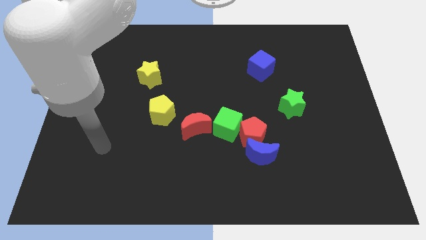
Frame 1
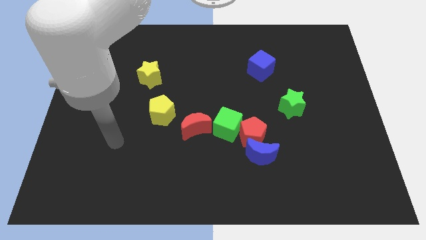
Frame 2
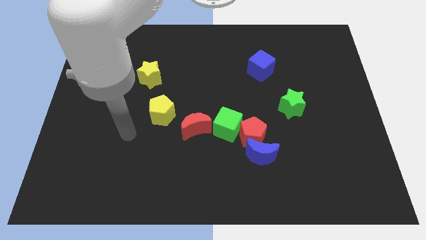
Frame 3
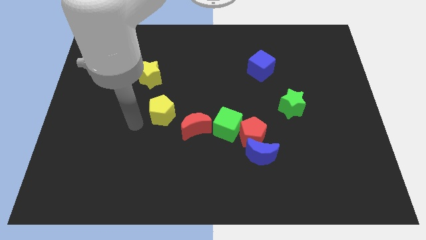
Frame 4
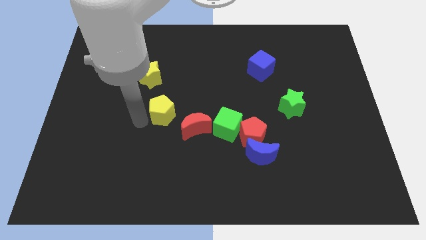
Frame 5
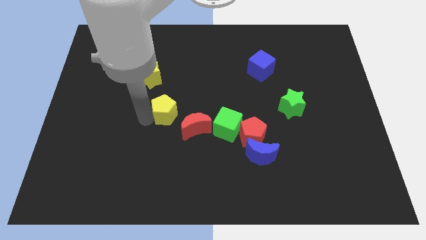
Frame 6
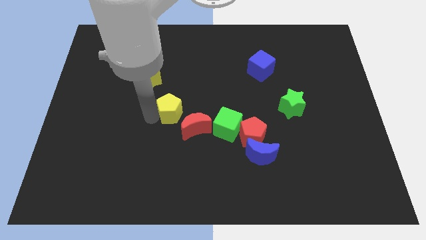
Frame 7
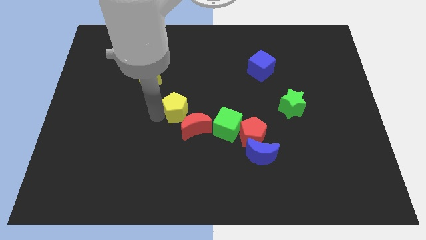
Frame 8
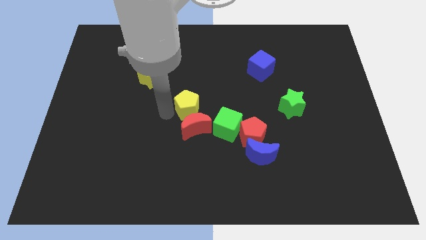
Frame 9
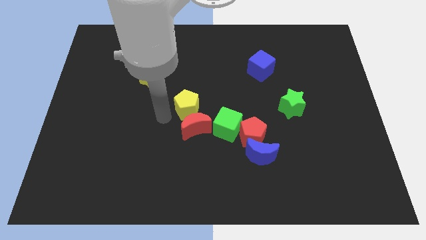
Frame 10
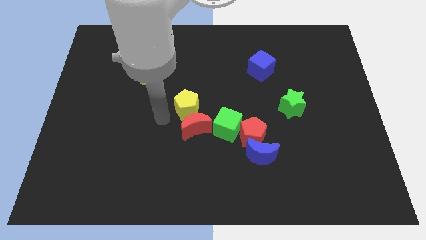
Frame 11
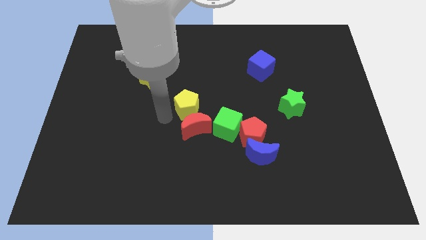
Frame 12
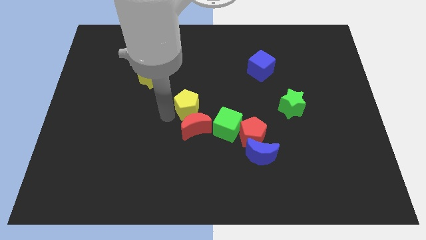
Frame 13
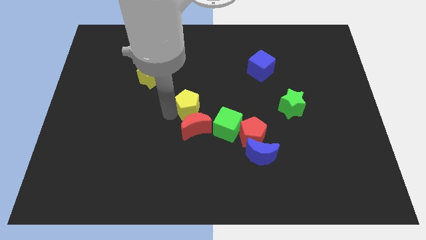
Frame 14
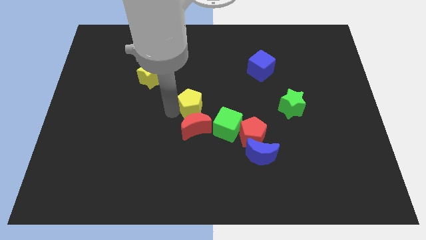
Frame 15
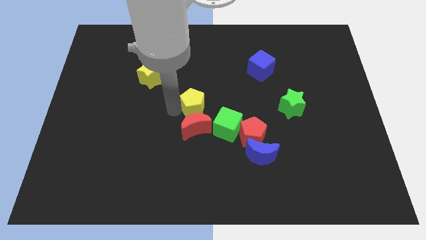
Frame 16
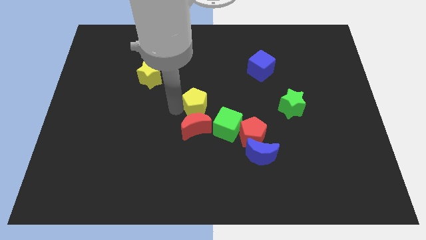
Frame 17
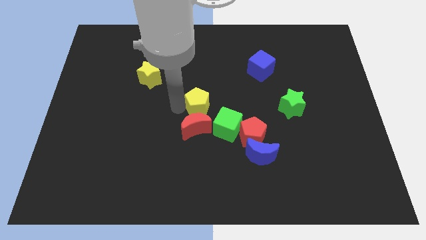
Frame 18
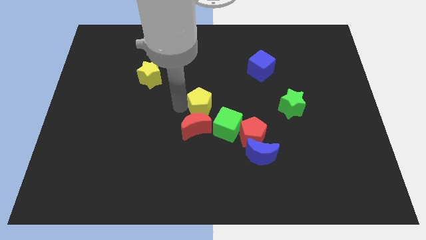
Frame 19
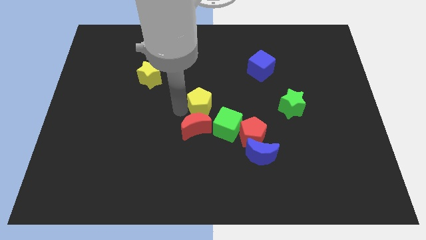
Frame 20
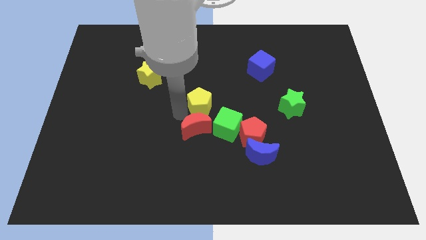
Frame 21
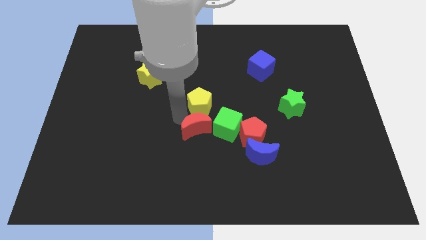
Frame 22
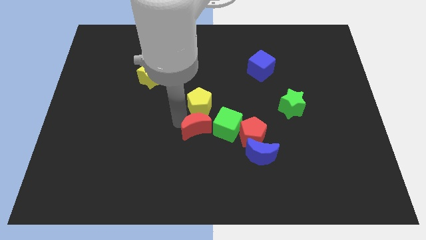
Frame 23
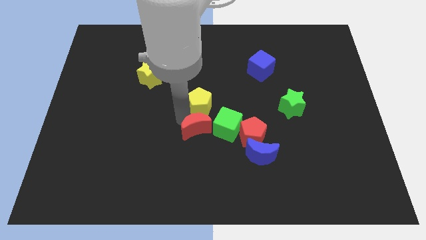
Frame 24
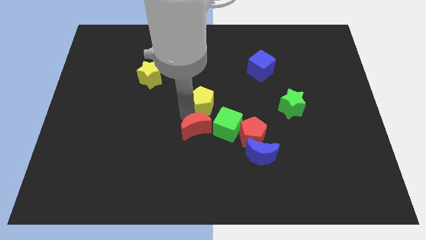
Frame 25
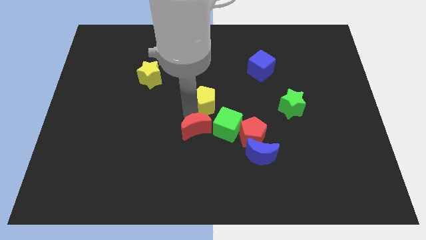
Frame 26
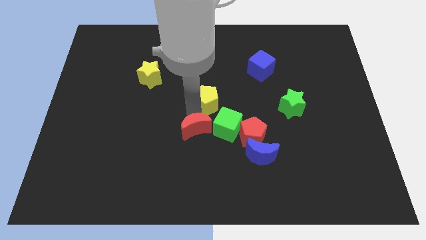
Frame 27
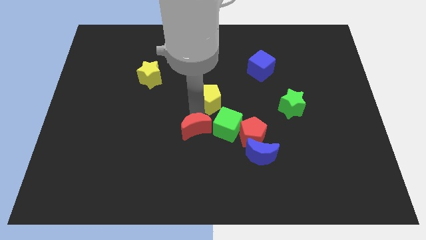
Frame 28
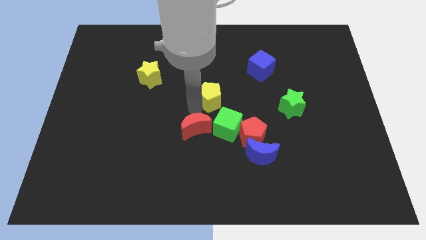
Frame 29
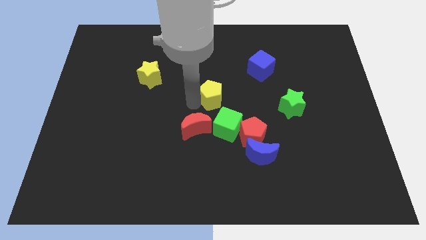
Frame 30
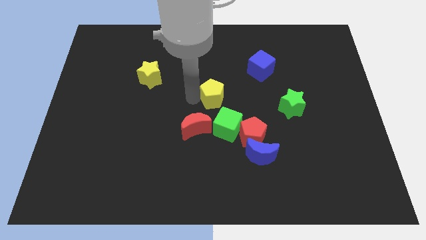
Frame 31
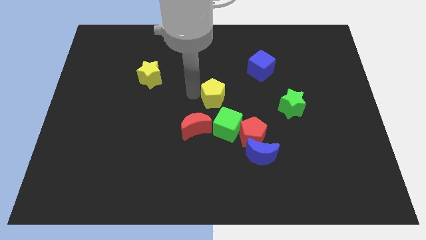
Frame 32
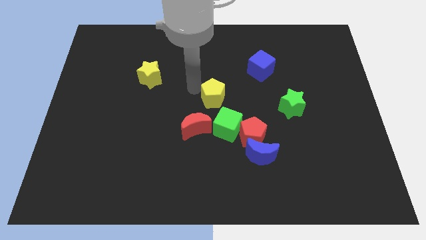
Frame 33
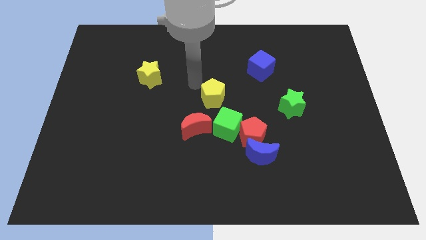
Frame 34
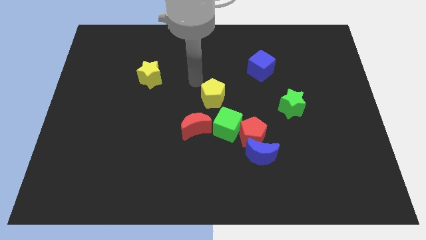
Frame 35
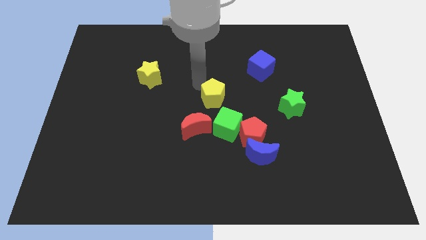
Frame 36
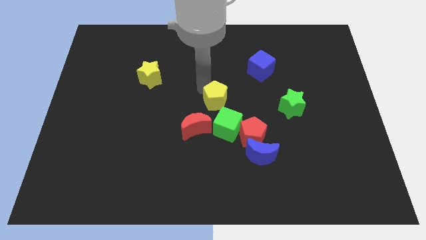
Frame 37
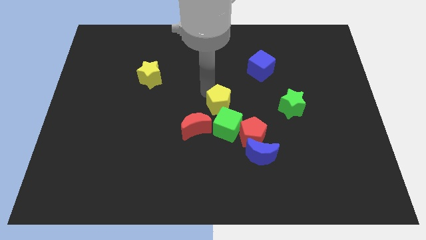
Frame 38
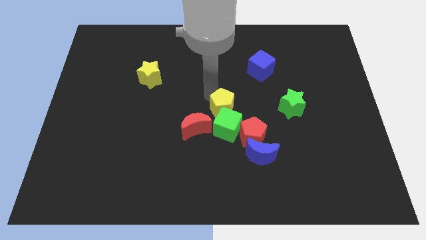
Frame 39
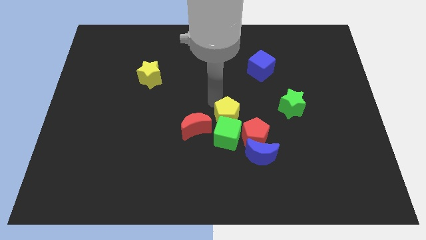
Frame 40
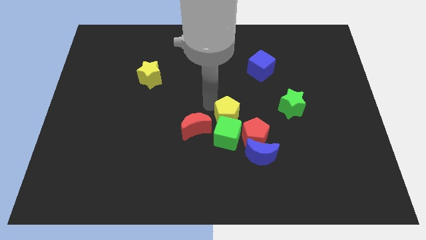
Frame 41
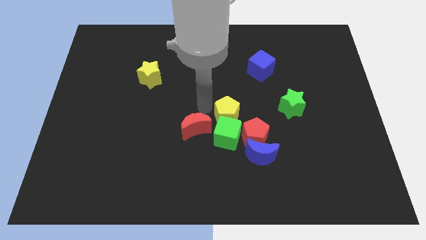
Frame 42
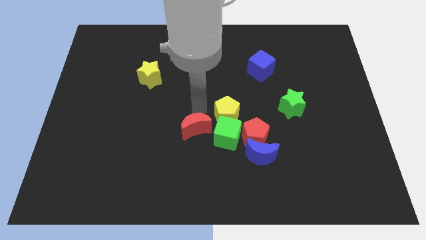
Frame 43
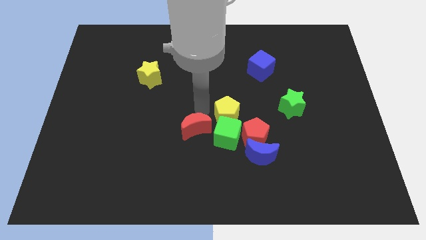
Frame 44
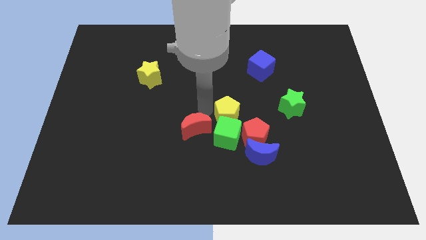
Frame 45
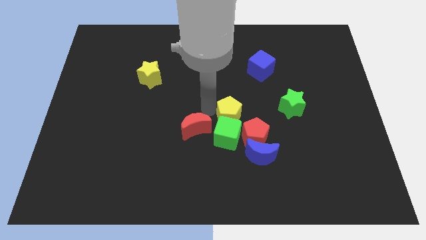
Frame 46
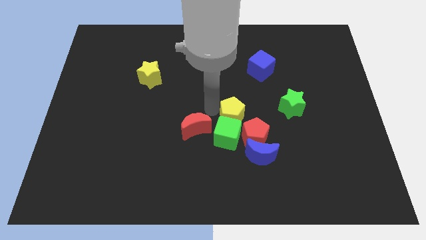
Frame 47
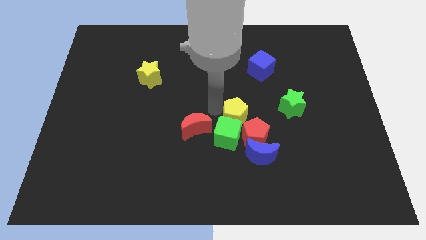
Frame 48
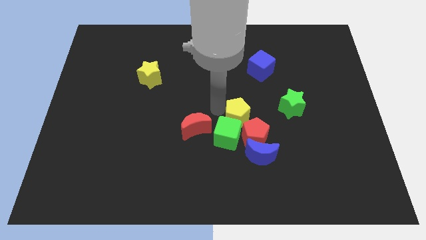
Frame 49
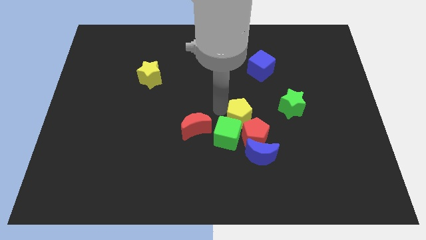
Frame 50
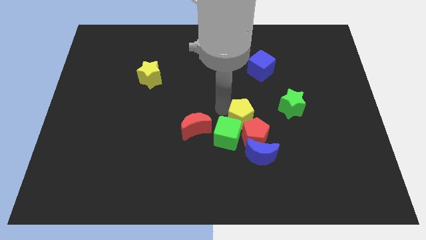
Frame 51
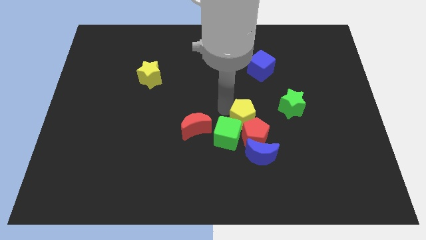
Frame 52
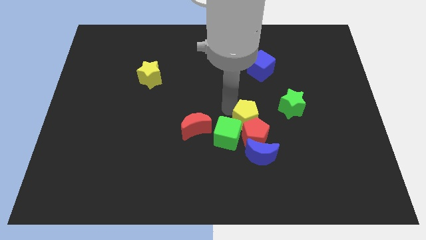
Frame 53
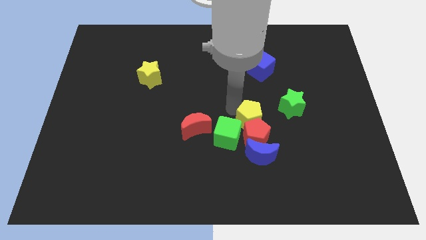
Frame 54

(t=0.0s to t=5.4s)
put the yellow pentagon right of the green cube
